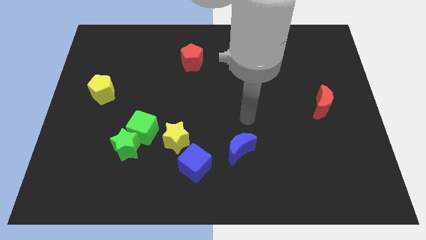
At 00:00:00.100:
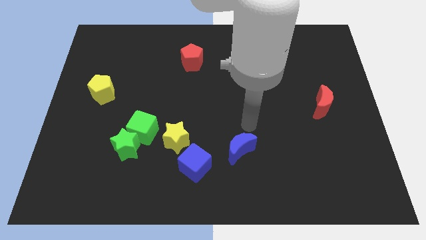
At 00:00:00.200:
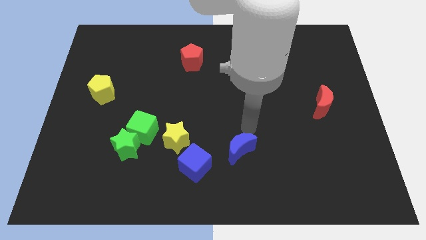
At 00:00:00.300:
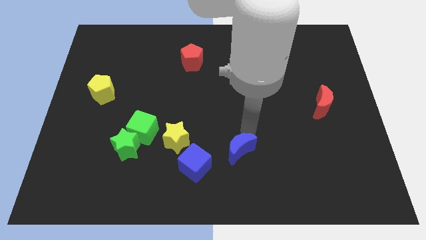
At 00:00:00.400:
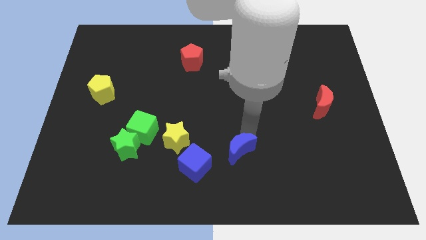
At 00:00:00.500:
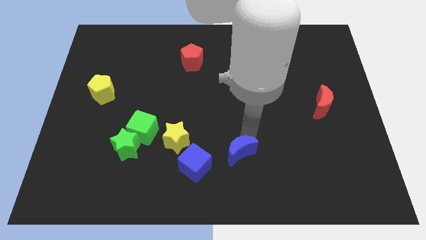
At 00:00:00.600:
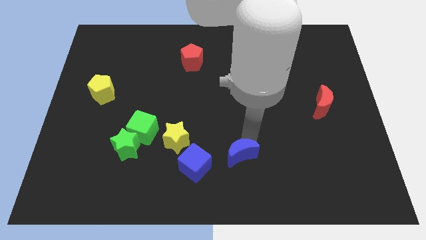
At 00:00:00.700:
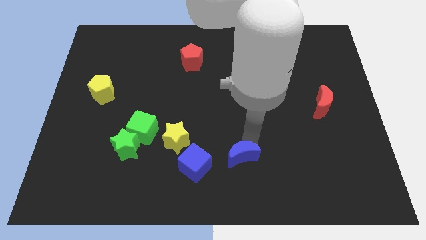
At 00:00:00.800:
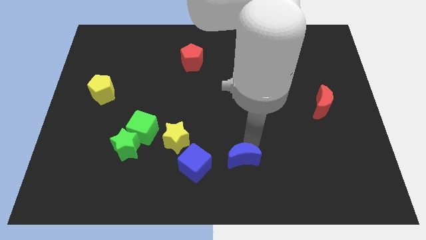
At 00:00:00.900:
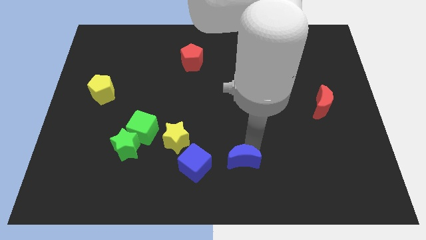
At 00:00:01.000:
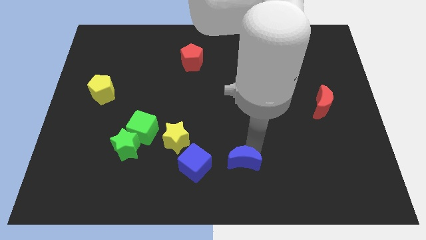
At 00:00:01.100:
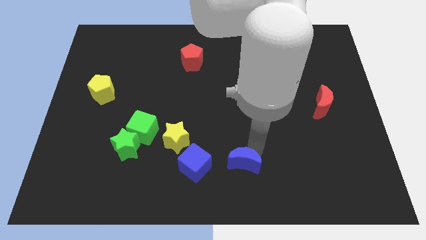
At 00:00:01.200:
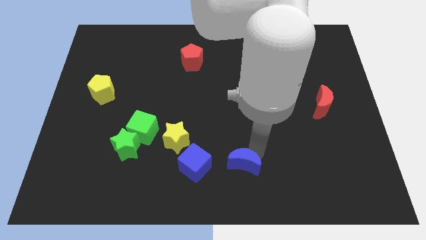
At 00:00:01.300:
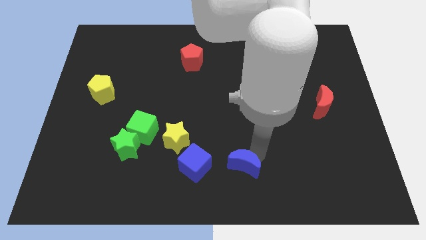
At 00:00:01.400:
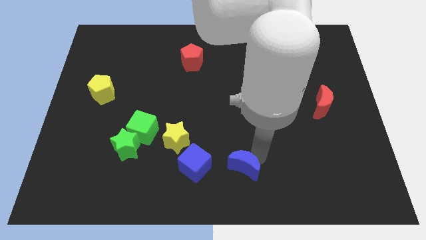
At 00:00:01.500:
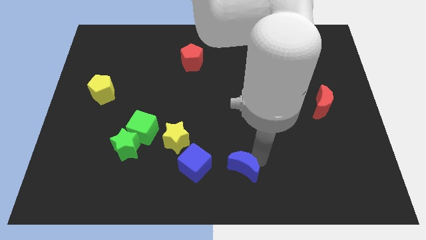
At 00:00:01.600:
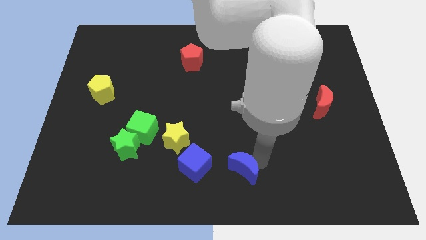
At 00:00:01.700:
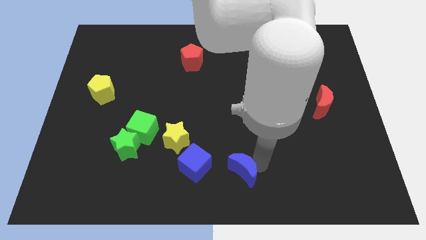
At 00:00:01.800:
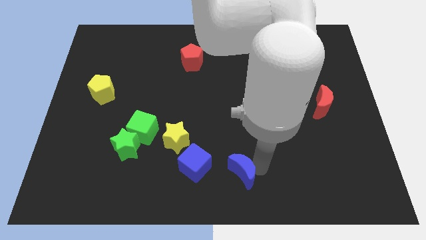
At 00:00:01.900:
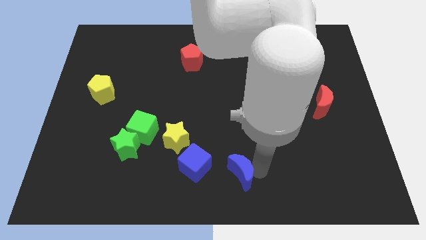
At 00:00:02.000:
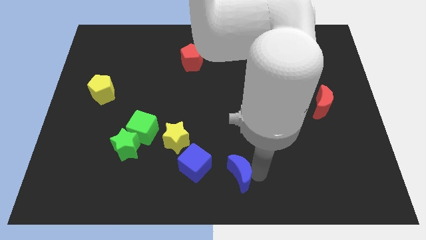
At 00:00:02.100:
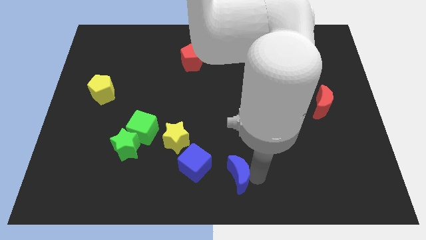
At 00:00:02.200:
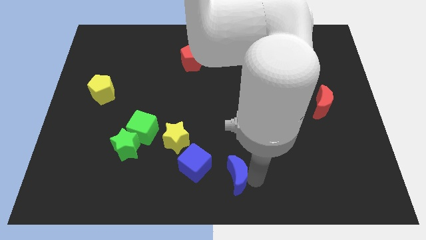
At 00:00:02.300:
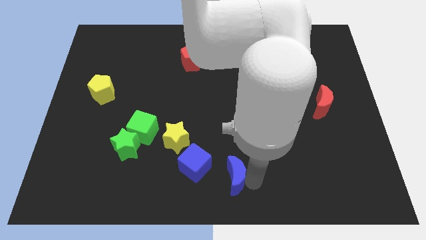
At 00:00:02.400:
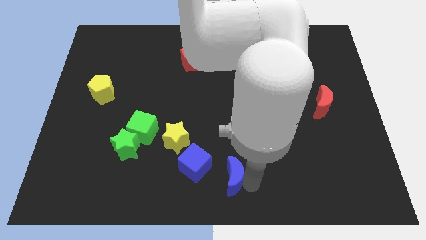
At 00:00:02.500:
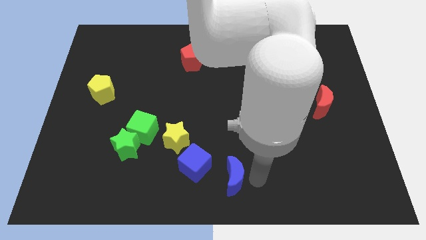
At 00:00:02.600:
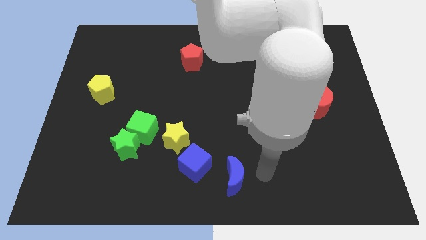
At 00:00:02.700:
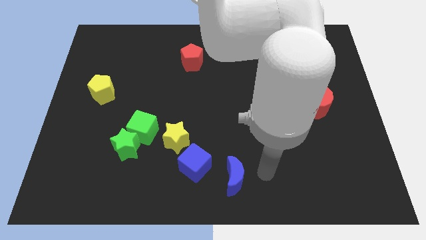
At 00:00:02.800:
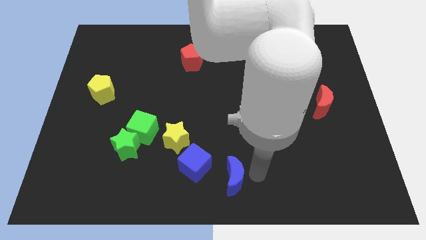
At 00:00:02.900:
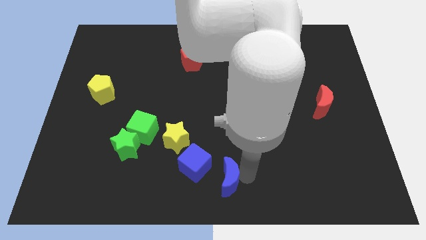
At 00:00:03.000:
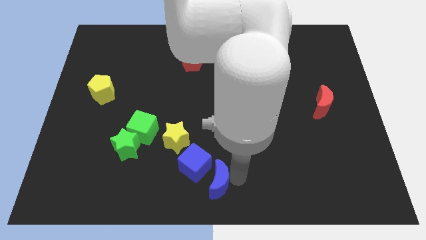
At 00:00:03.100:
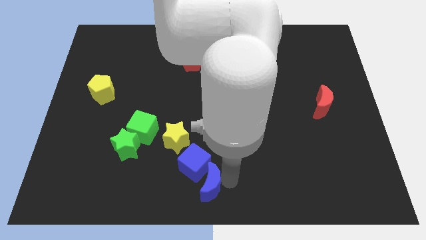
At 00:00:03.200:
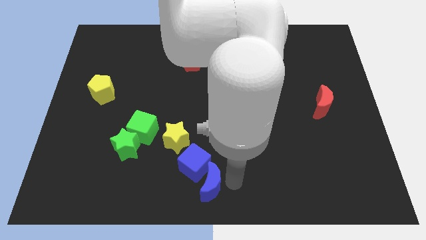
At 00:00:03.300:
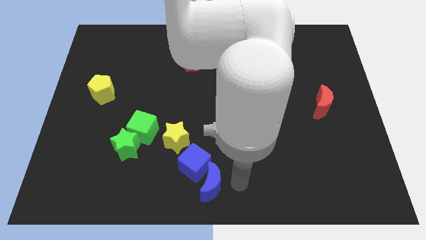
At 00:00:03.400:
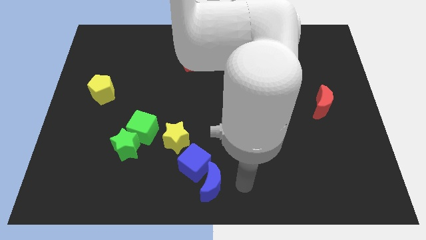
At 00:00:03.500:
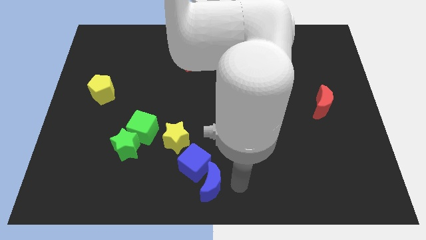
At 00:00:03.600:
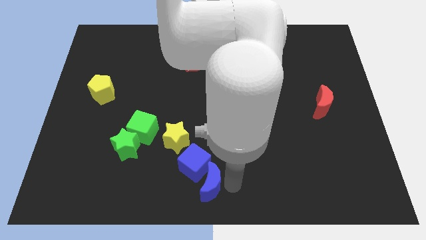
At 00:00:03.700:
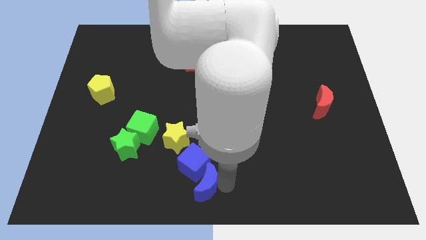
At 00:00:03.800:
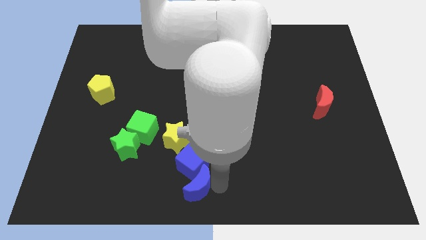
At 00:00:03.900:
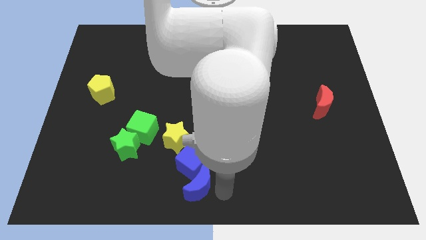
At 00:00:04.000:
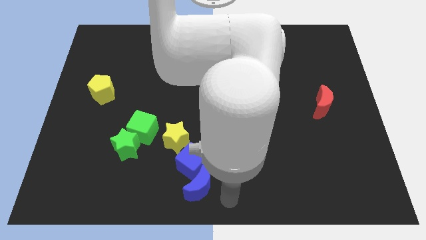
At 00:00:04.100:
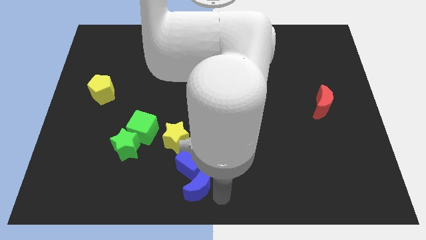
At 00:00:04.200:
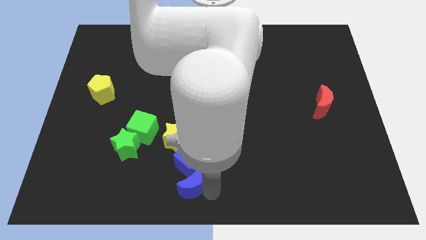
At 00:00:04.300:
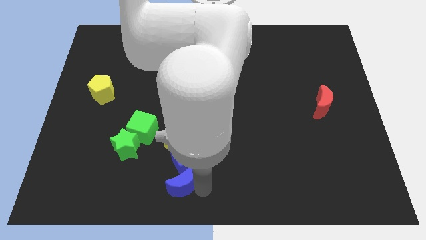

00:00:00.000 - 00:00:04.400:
move the blue moon a bit left

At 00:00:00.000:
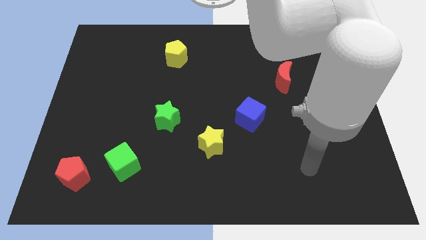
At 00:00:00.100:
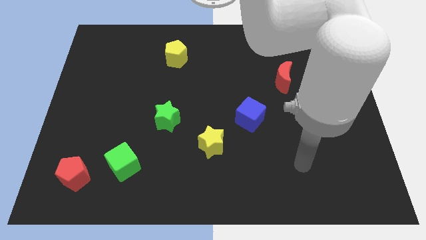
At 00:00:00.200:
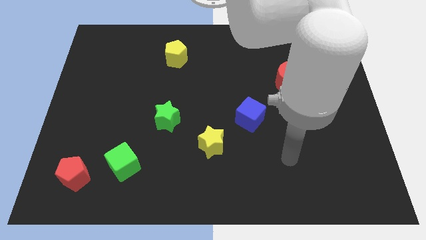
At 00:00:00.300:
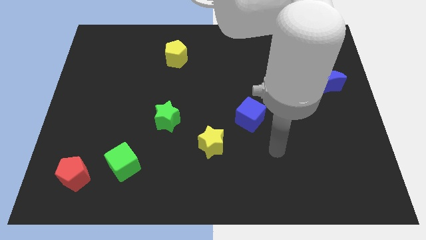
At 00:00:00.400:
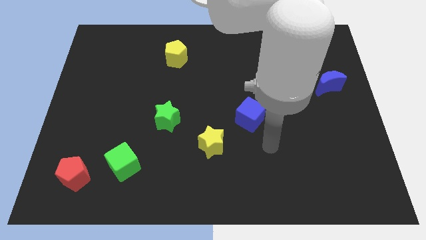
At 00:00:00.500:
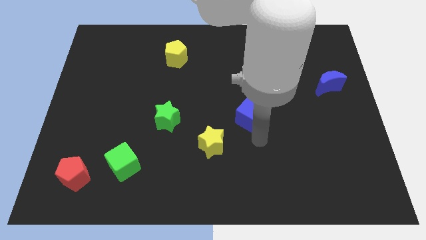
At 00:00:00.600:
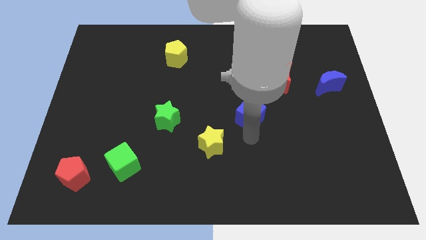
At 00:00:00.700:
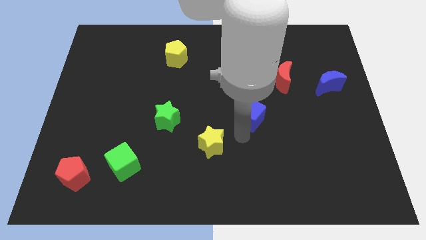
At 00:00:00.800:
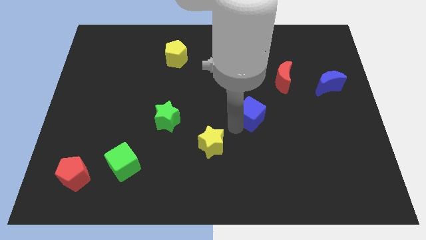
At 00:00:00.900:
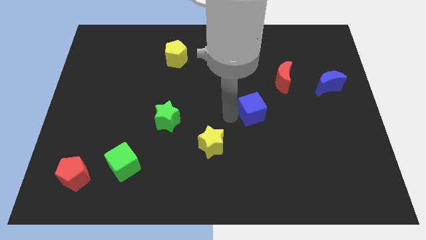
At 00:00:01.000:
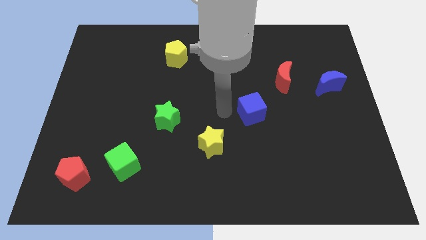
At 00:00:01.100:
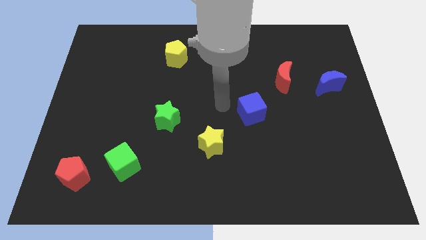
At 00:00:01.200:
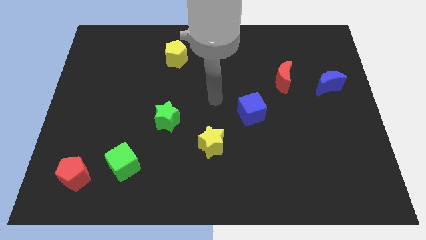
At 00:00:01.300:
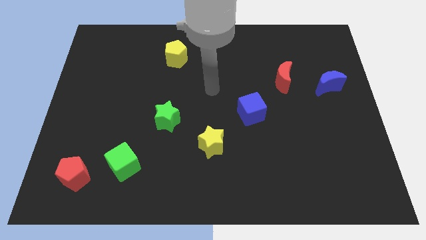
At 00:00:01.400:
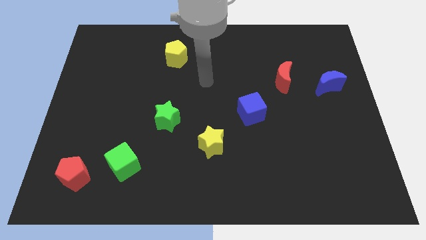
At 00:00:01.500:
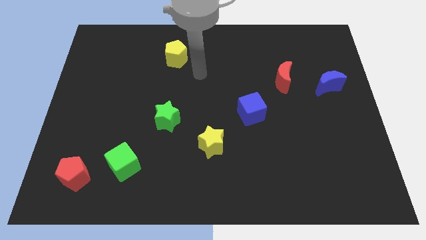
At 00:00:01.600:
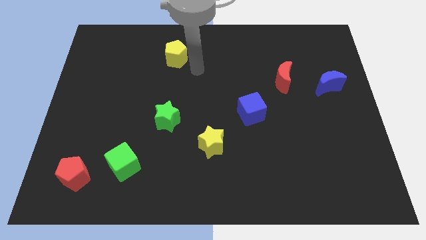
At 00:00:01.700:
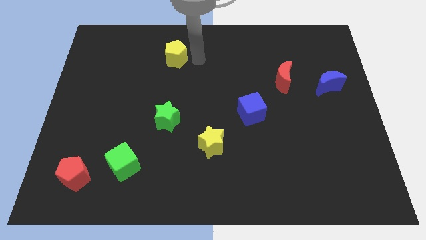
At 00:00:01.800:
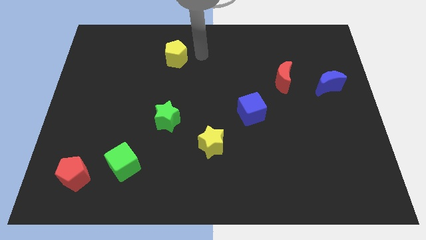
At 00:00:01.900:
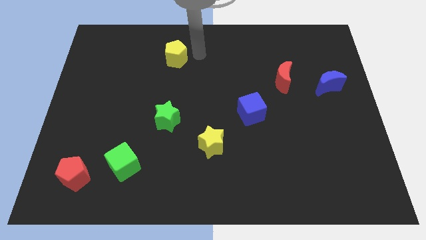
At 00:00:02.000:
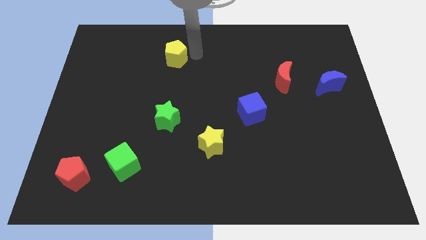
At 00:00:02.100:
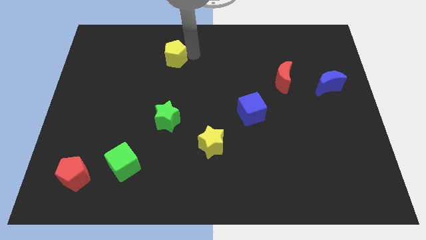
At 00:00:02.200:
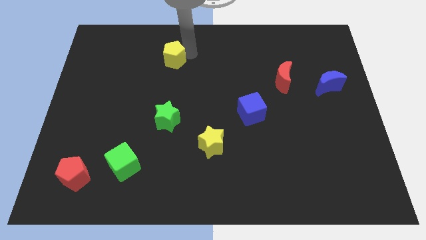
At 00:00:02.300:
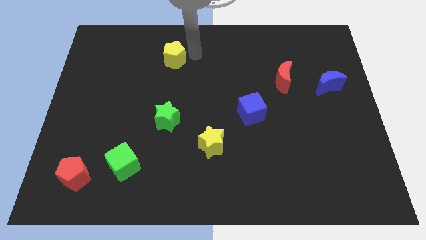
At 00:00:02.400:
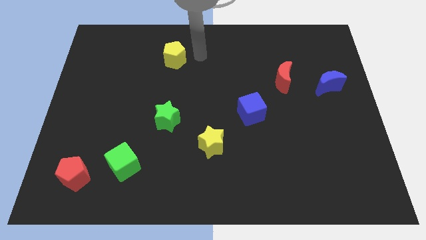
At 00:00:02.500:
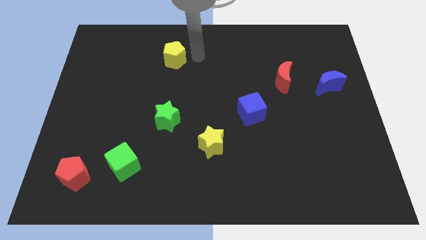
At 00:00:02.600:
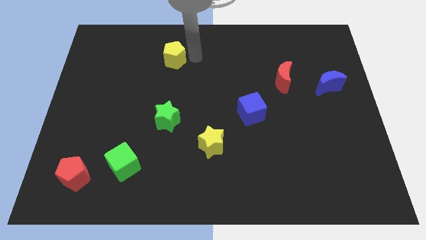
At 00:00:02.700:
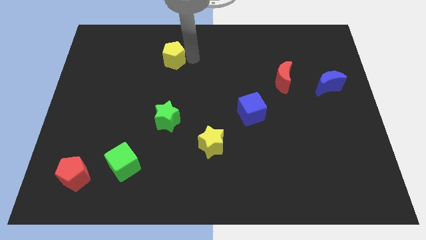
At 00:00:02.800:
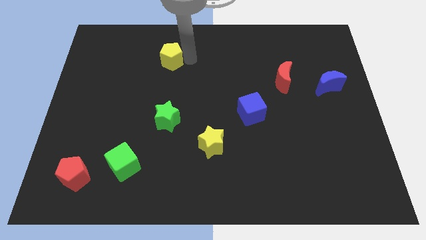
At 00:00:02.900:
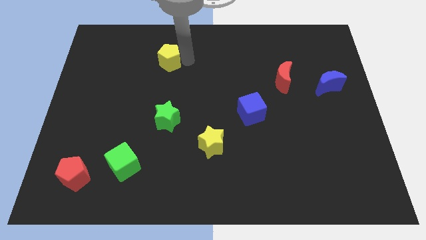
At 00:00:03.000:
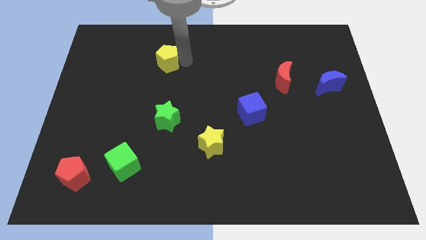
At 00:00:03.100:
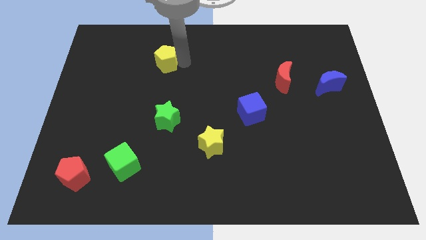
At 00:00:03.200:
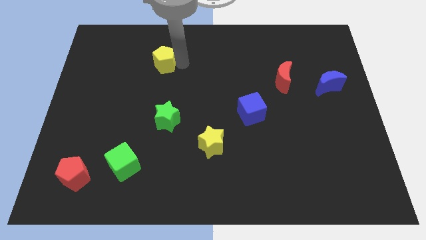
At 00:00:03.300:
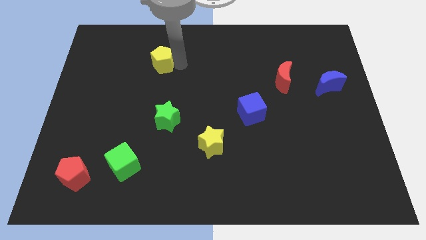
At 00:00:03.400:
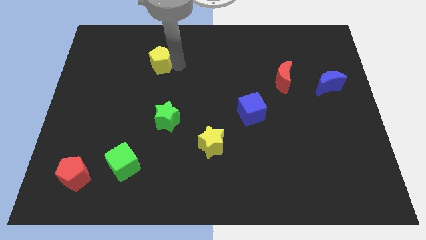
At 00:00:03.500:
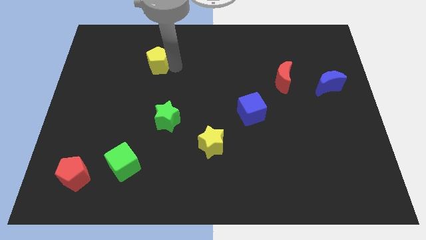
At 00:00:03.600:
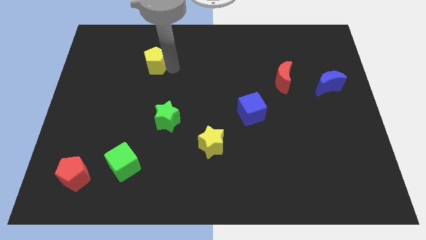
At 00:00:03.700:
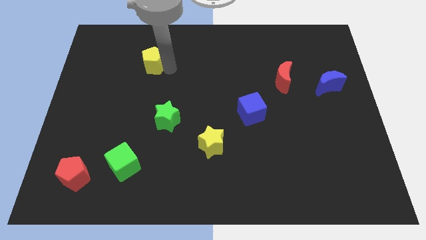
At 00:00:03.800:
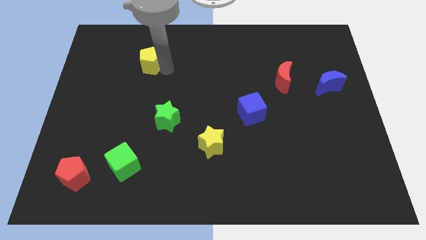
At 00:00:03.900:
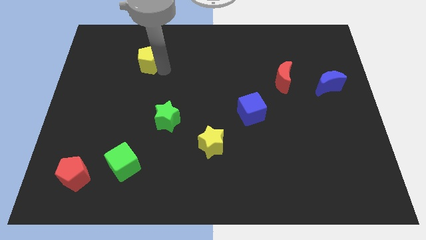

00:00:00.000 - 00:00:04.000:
push the yellow pentagon left a bit
